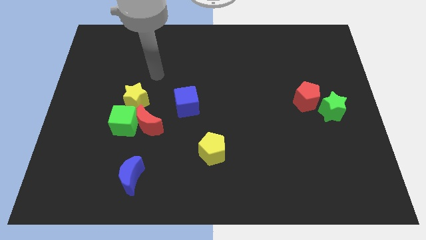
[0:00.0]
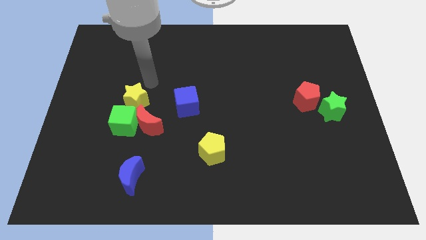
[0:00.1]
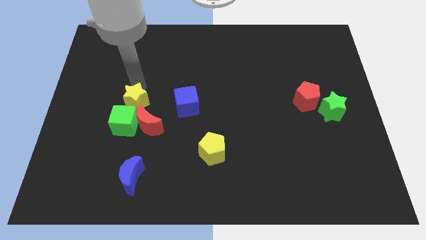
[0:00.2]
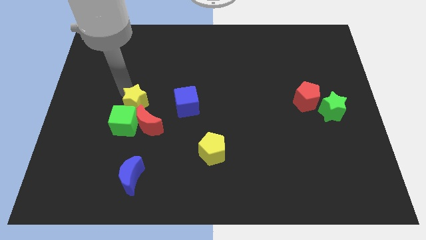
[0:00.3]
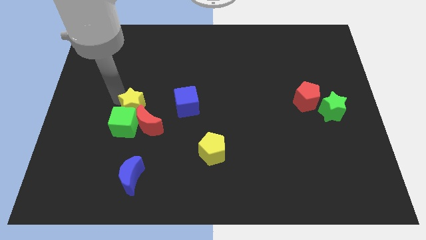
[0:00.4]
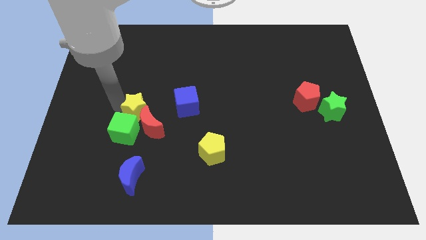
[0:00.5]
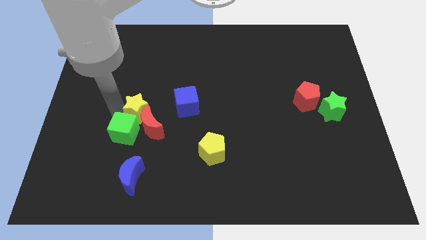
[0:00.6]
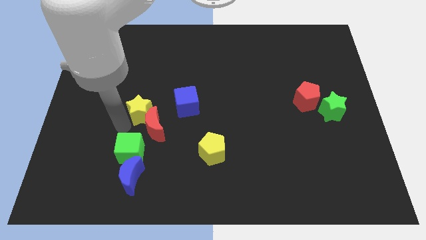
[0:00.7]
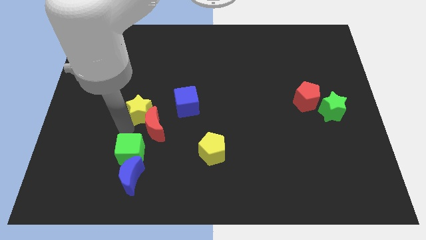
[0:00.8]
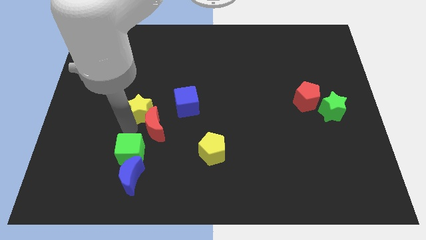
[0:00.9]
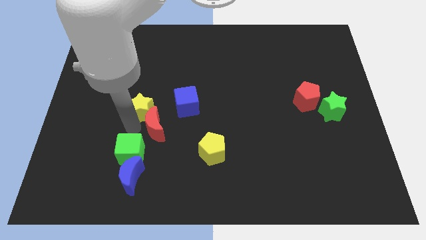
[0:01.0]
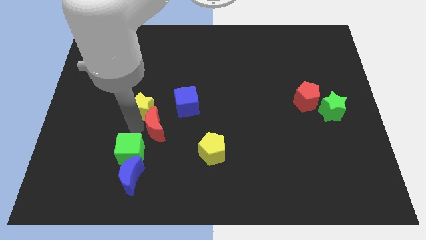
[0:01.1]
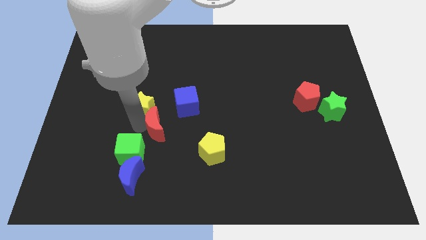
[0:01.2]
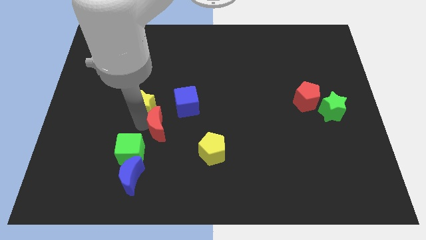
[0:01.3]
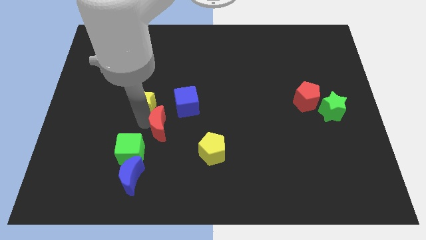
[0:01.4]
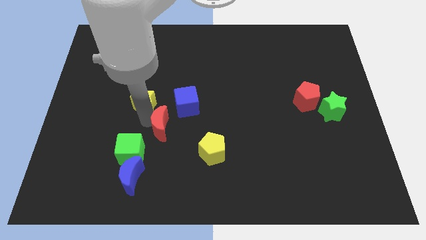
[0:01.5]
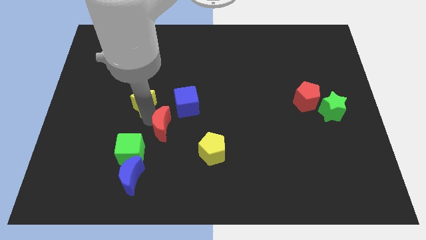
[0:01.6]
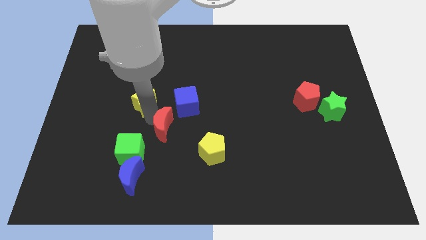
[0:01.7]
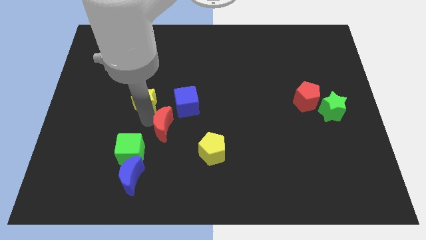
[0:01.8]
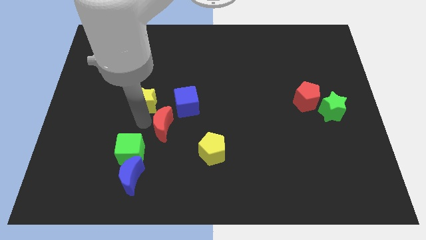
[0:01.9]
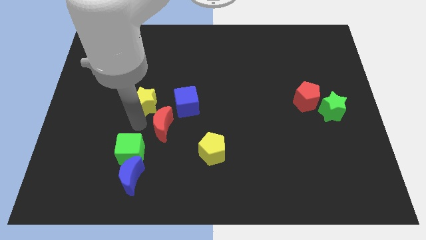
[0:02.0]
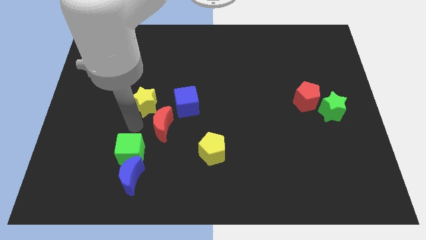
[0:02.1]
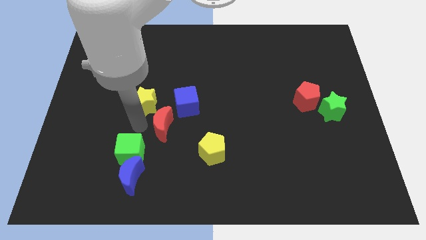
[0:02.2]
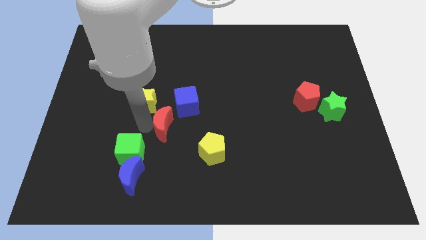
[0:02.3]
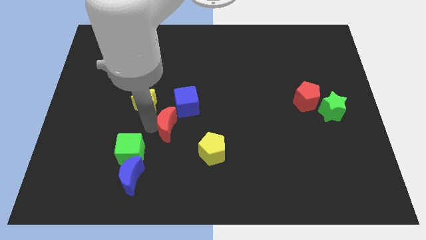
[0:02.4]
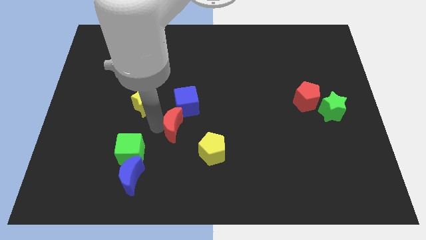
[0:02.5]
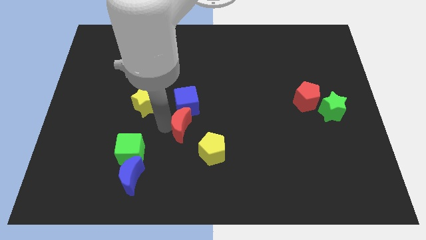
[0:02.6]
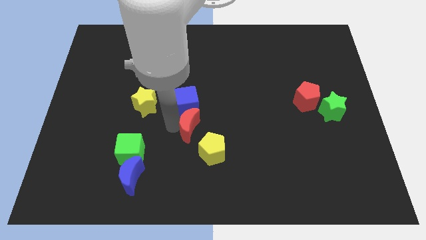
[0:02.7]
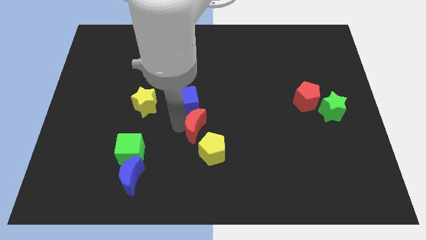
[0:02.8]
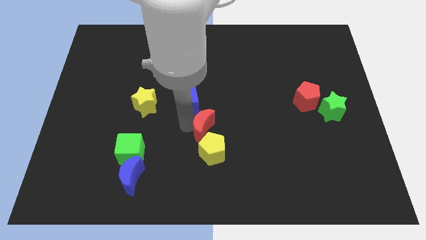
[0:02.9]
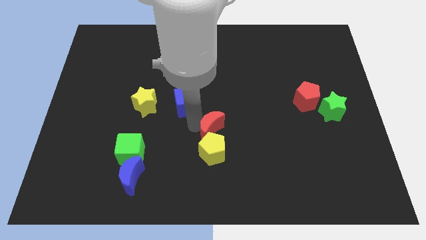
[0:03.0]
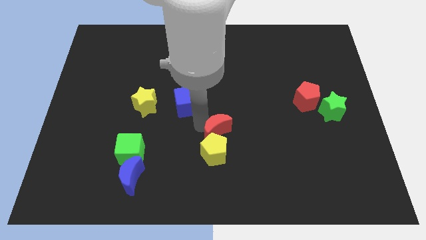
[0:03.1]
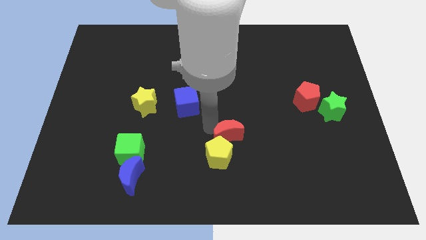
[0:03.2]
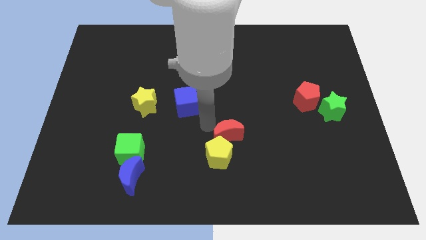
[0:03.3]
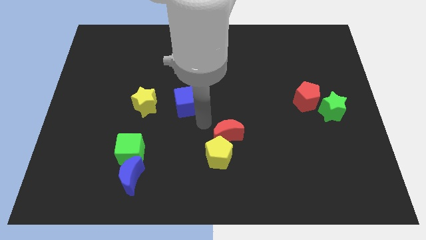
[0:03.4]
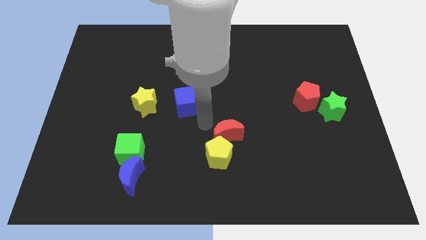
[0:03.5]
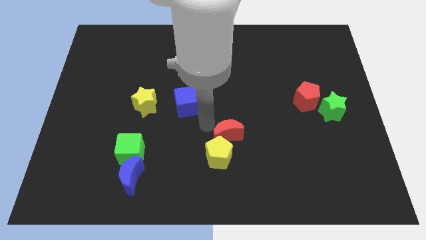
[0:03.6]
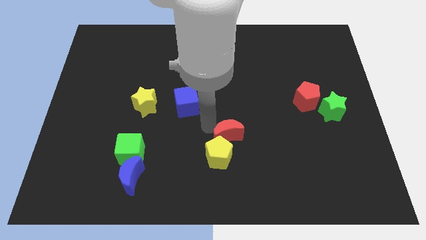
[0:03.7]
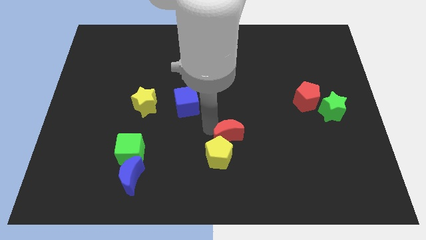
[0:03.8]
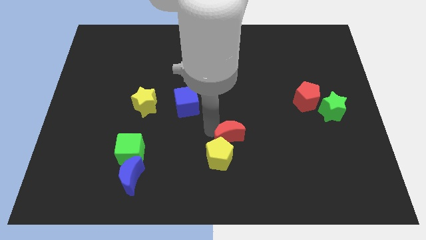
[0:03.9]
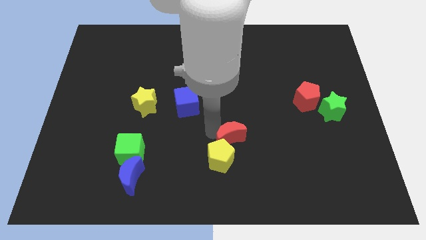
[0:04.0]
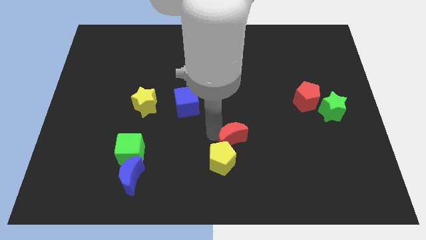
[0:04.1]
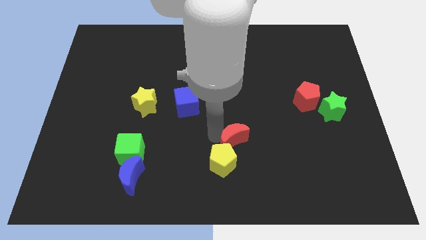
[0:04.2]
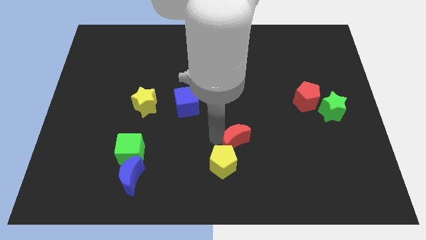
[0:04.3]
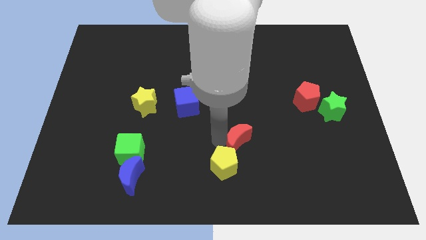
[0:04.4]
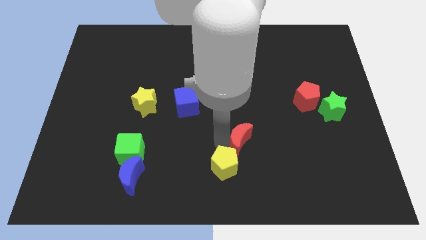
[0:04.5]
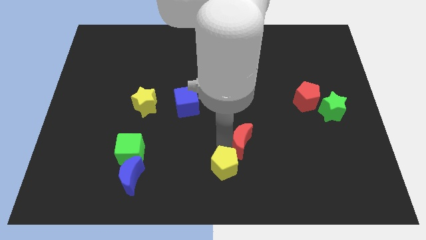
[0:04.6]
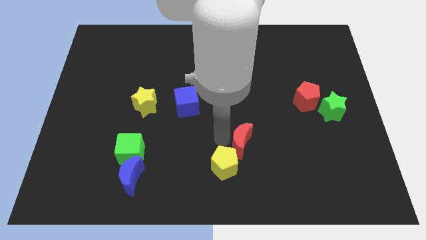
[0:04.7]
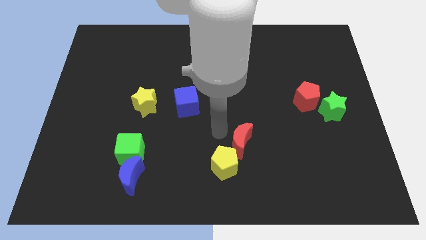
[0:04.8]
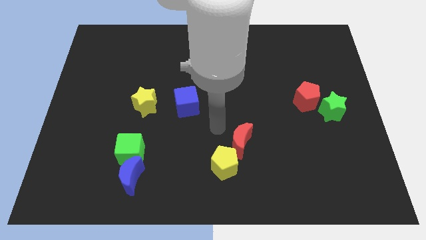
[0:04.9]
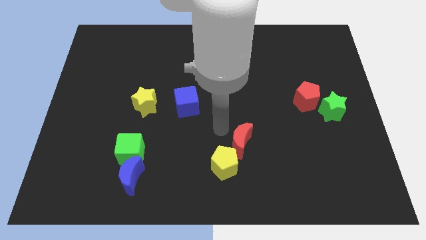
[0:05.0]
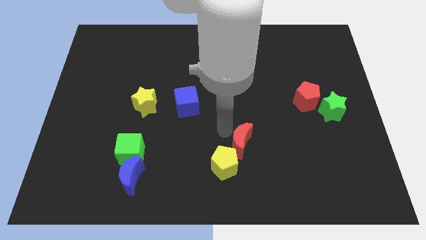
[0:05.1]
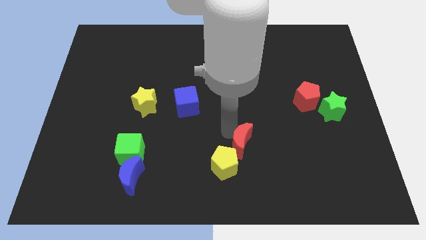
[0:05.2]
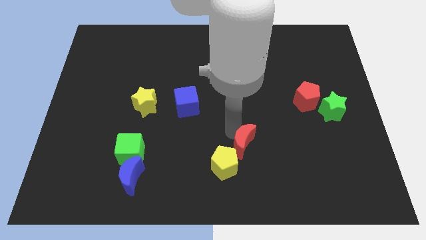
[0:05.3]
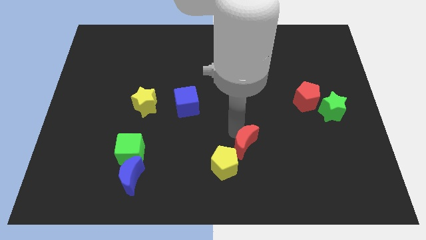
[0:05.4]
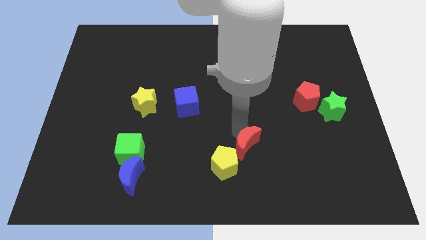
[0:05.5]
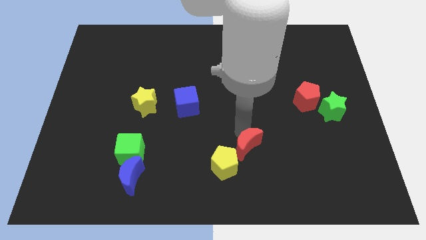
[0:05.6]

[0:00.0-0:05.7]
move the red moon just right of the yellow pentagon

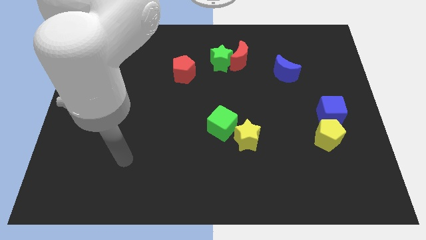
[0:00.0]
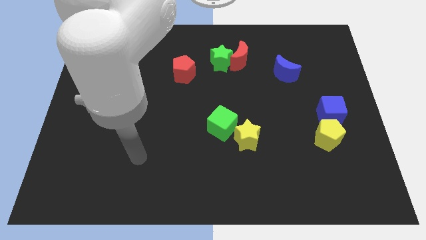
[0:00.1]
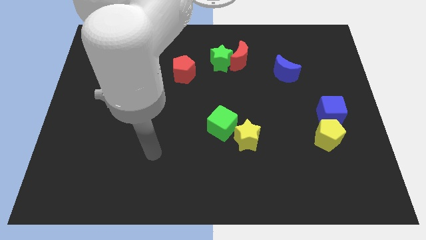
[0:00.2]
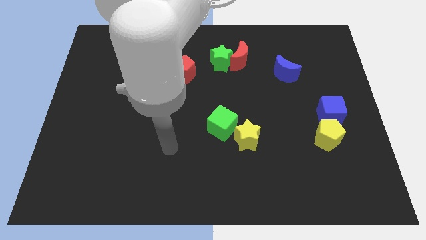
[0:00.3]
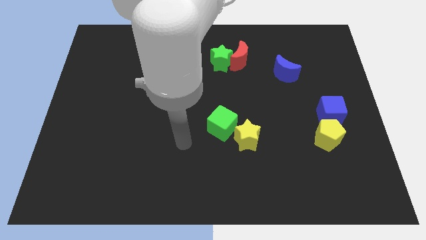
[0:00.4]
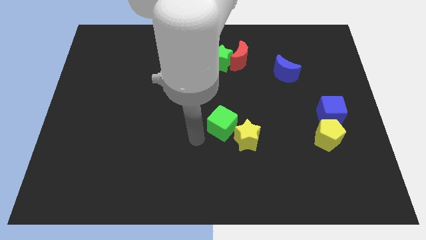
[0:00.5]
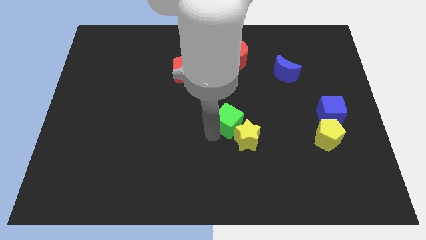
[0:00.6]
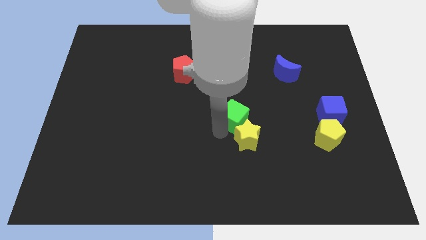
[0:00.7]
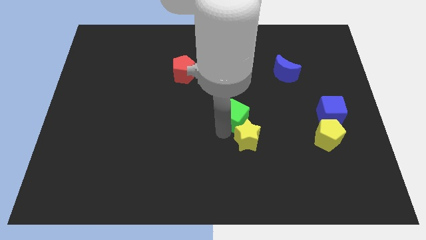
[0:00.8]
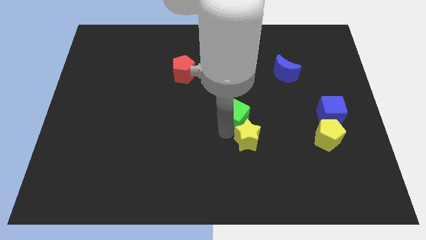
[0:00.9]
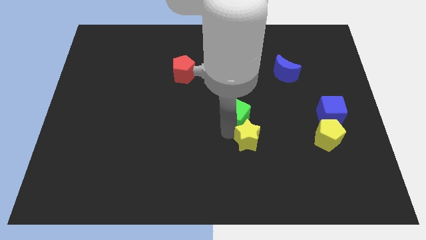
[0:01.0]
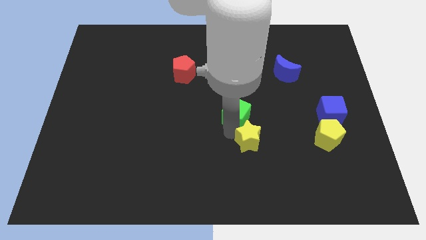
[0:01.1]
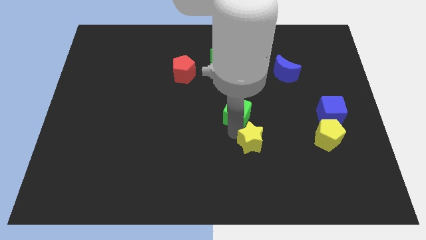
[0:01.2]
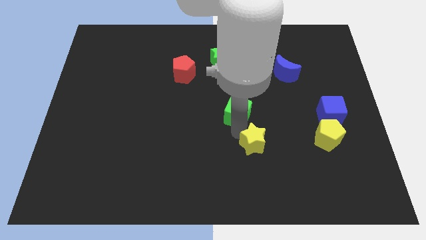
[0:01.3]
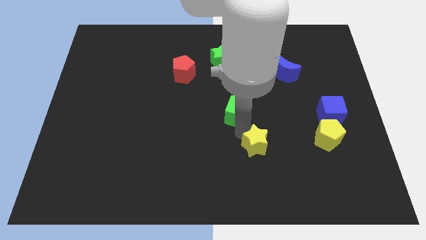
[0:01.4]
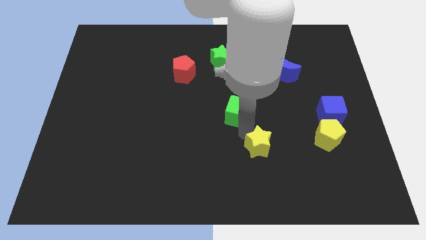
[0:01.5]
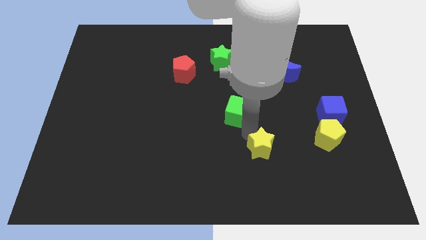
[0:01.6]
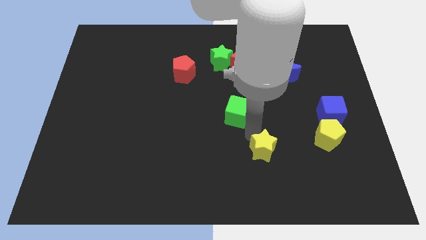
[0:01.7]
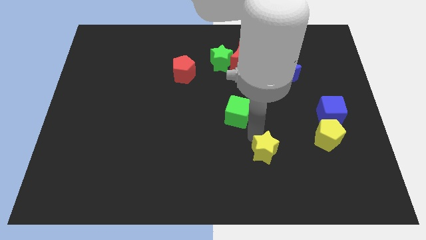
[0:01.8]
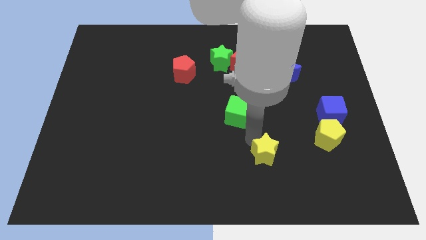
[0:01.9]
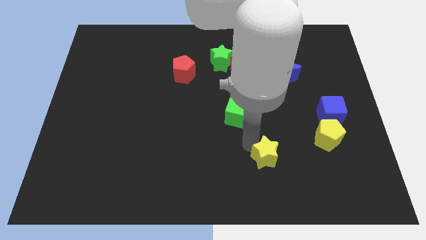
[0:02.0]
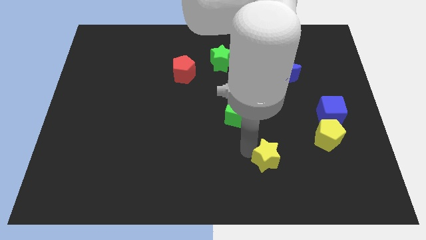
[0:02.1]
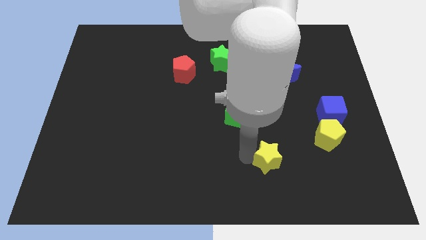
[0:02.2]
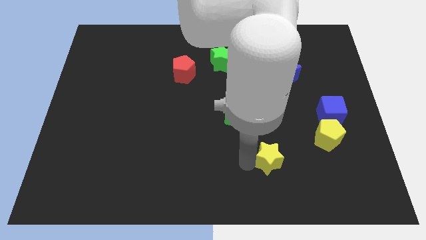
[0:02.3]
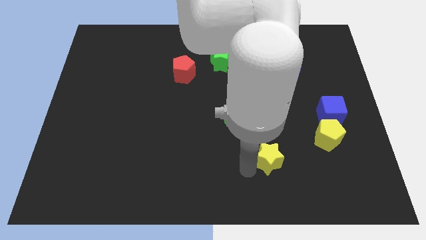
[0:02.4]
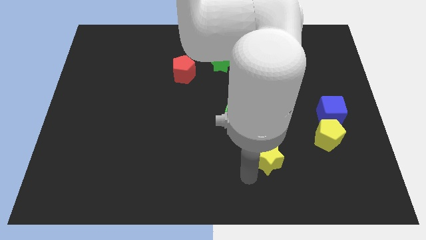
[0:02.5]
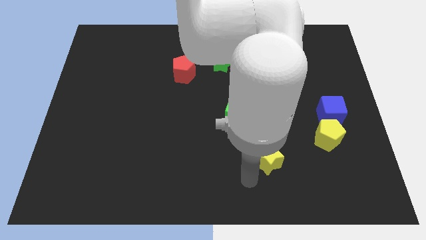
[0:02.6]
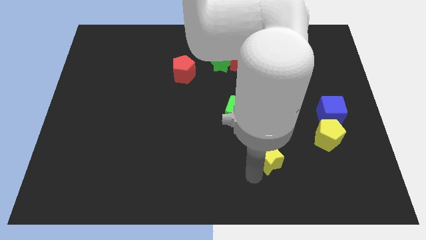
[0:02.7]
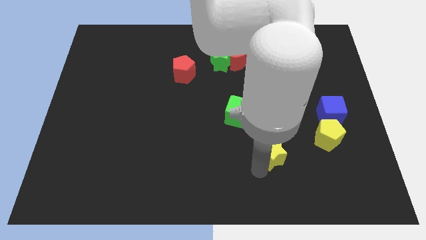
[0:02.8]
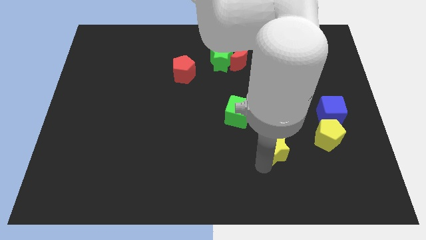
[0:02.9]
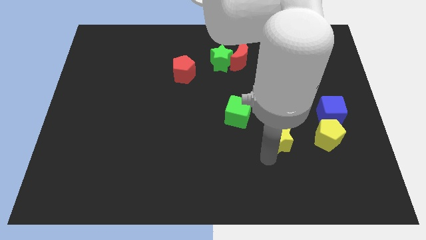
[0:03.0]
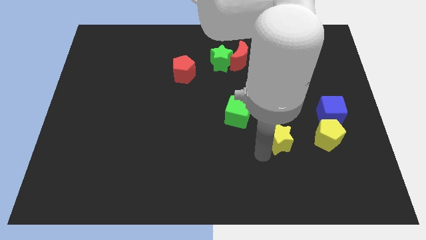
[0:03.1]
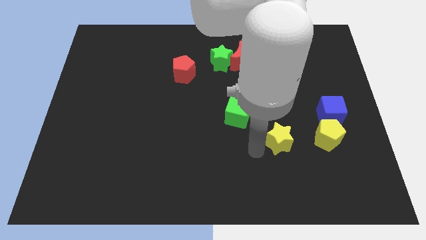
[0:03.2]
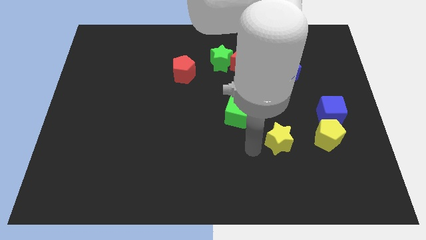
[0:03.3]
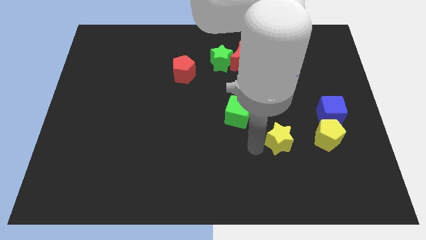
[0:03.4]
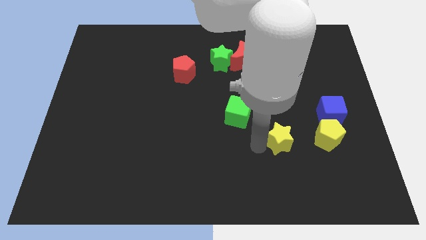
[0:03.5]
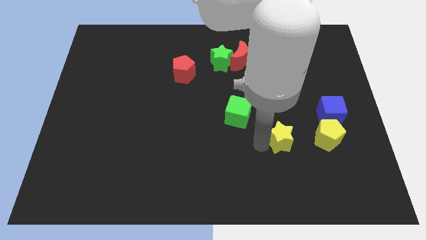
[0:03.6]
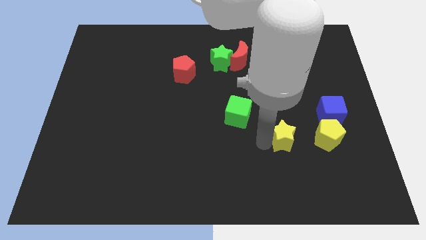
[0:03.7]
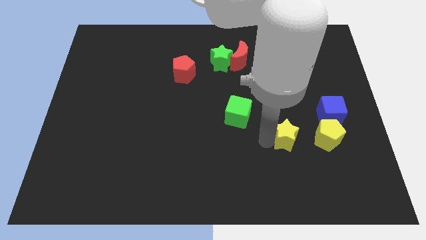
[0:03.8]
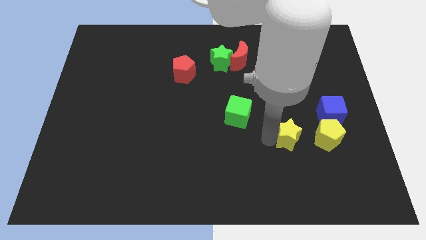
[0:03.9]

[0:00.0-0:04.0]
slide the yellow star to the bottom left of the blue cube
